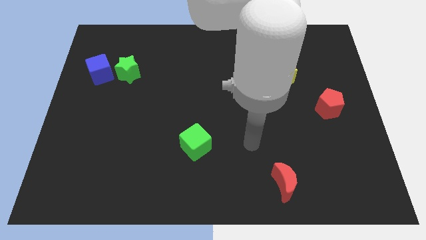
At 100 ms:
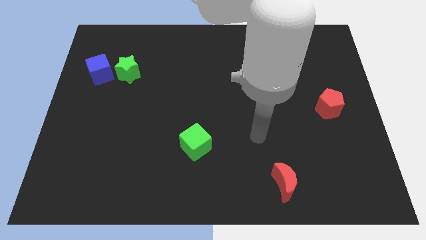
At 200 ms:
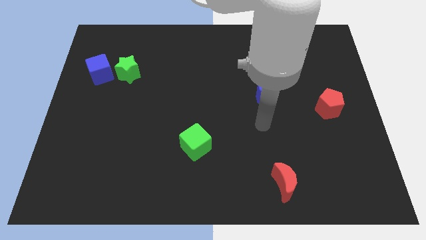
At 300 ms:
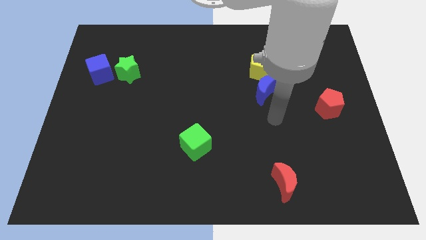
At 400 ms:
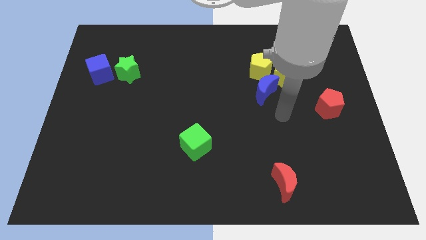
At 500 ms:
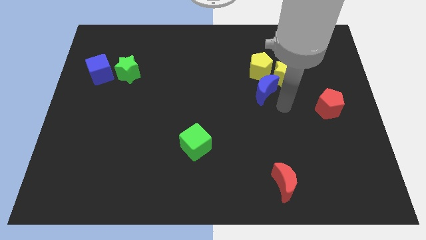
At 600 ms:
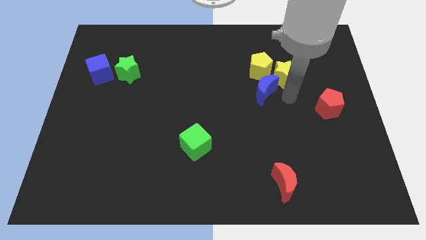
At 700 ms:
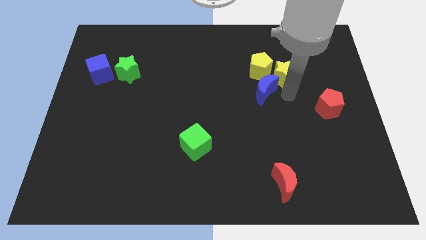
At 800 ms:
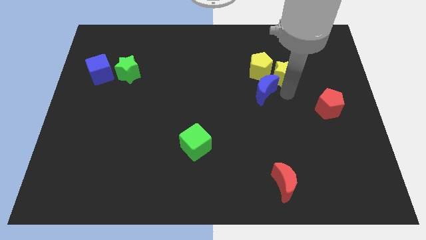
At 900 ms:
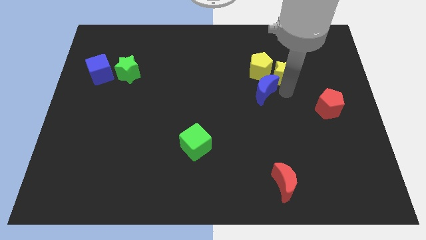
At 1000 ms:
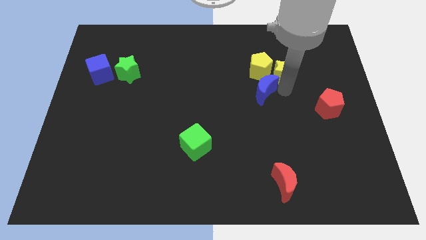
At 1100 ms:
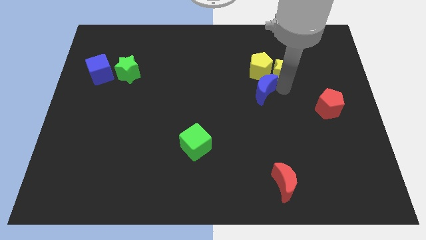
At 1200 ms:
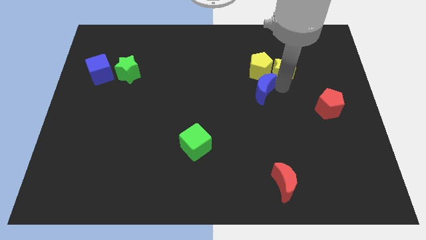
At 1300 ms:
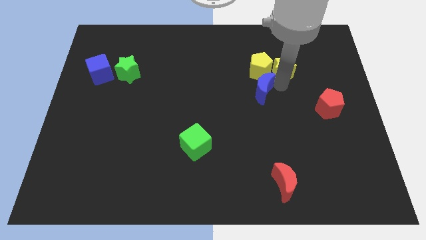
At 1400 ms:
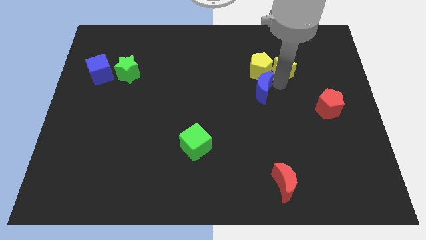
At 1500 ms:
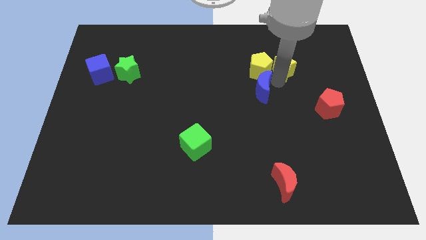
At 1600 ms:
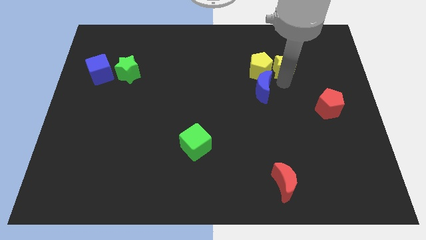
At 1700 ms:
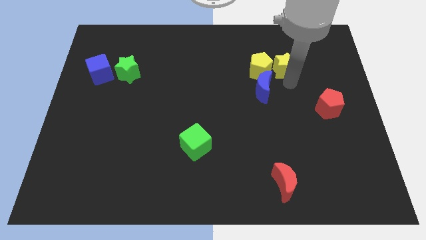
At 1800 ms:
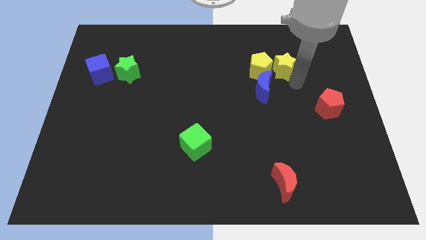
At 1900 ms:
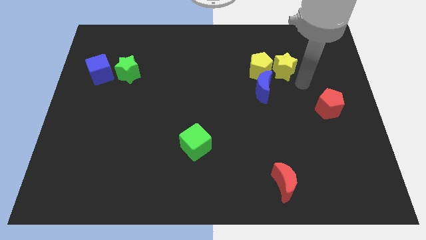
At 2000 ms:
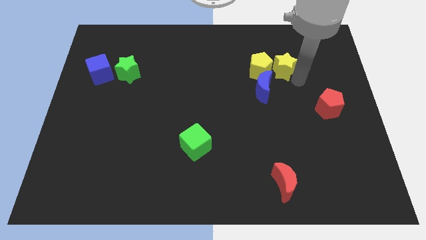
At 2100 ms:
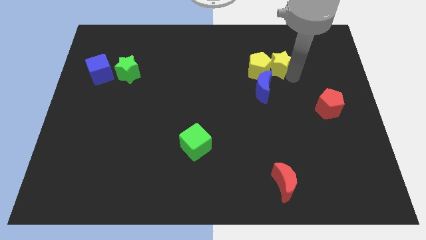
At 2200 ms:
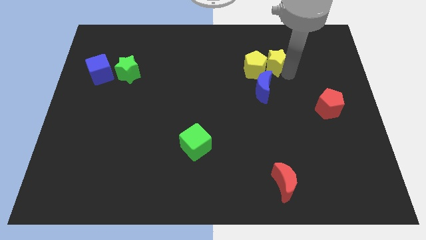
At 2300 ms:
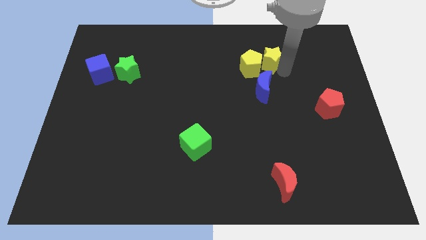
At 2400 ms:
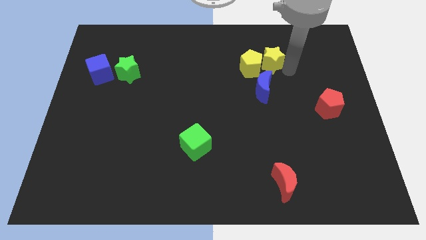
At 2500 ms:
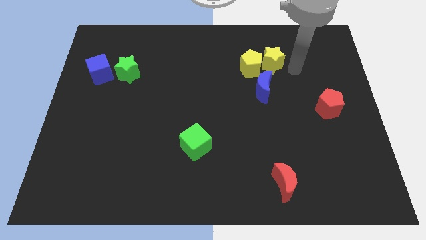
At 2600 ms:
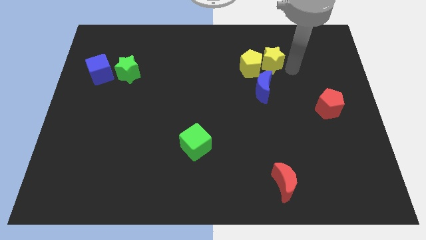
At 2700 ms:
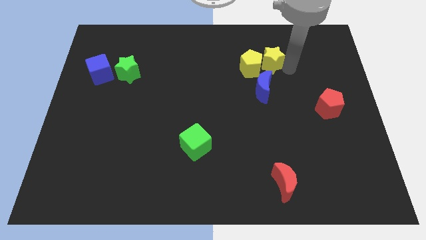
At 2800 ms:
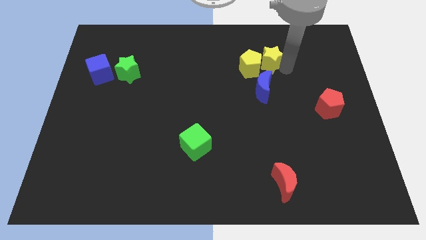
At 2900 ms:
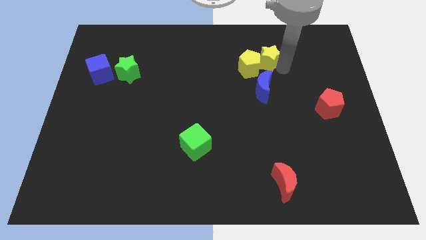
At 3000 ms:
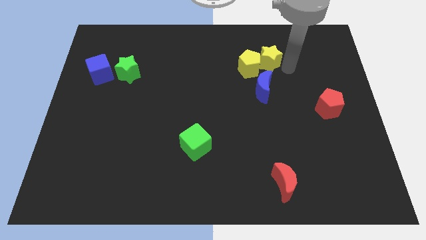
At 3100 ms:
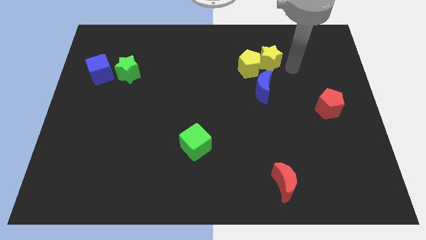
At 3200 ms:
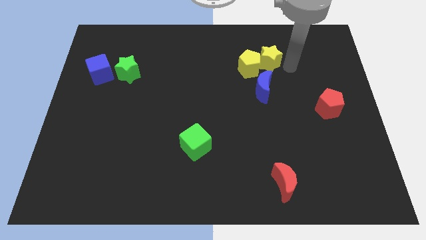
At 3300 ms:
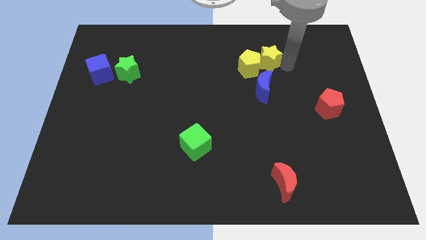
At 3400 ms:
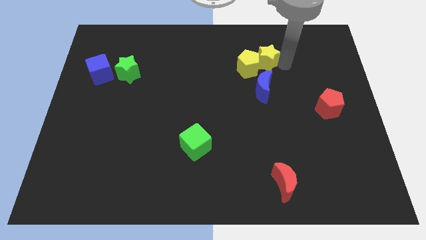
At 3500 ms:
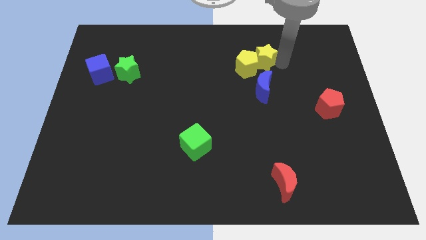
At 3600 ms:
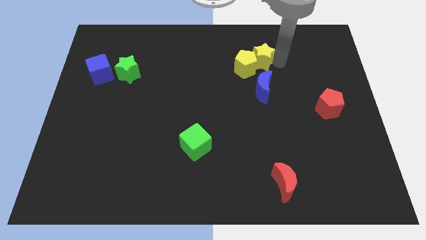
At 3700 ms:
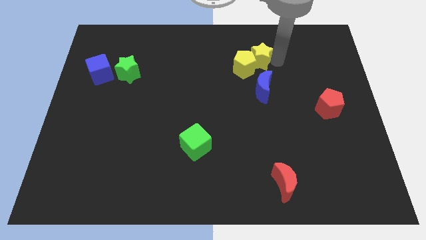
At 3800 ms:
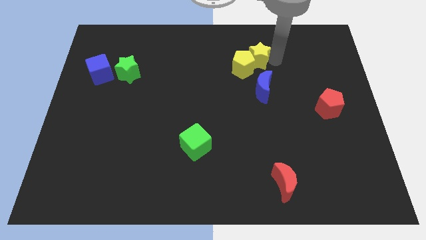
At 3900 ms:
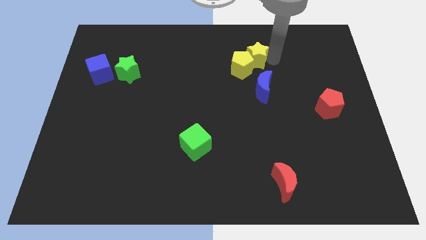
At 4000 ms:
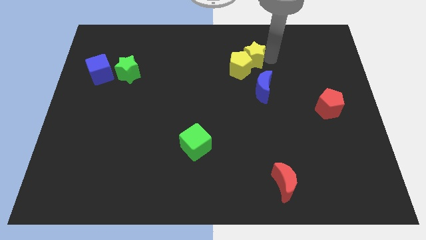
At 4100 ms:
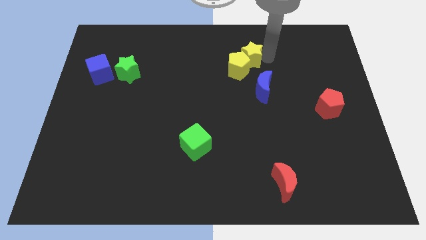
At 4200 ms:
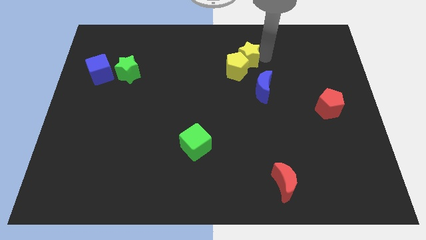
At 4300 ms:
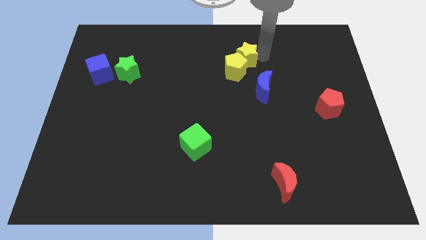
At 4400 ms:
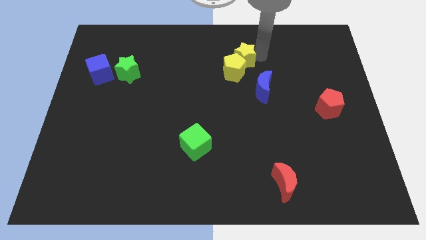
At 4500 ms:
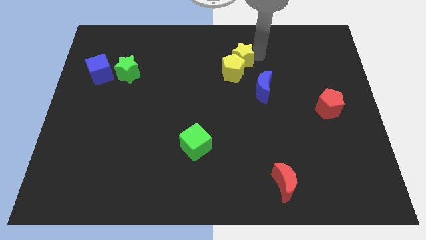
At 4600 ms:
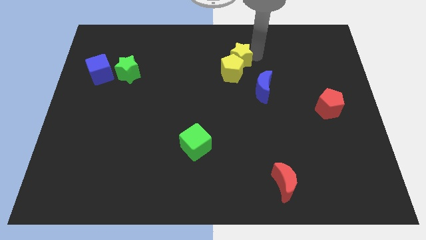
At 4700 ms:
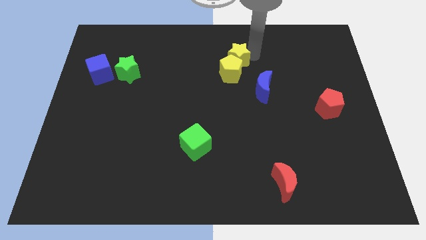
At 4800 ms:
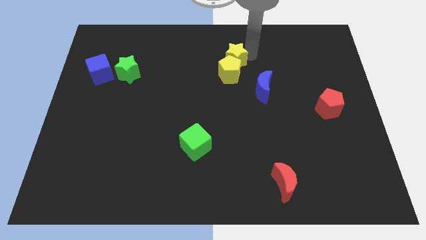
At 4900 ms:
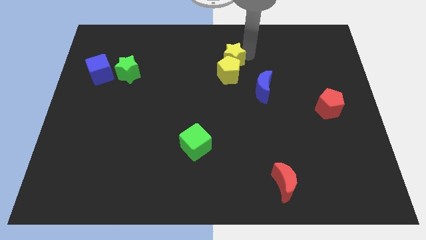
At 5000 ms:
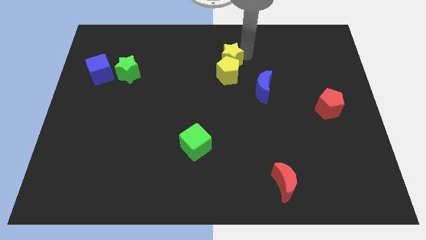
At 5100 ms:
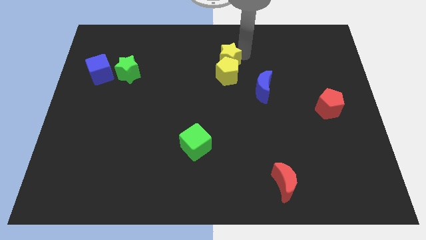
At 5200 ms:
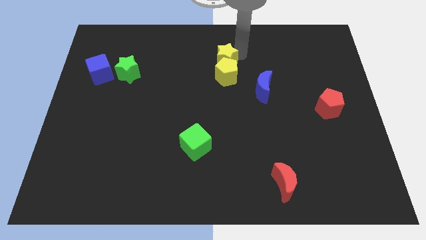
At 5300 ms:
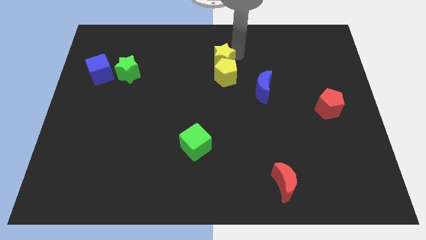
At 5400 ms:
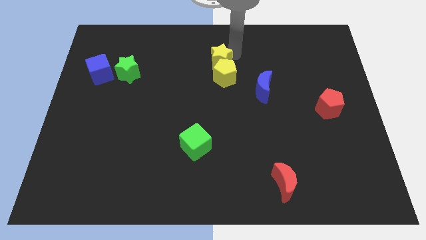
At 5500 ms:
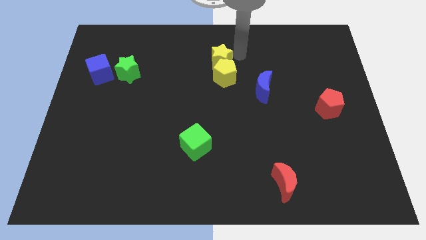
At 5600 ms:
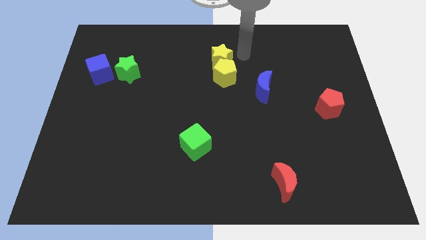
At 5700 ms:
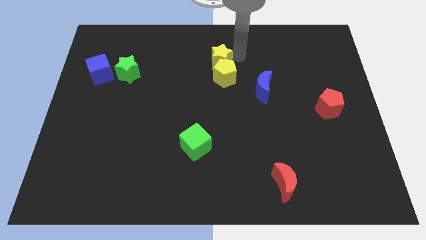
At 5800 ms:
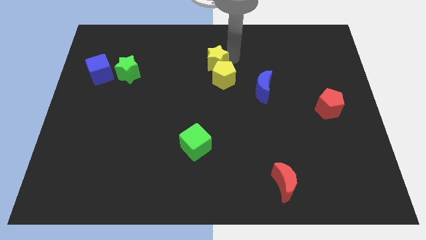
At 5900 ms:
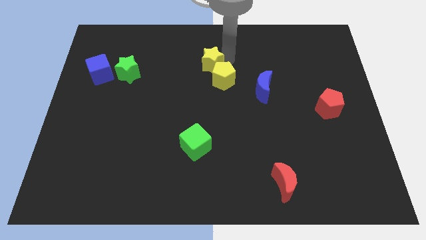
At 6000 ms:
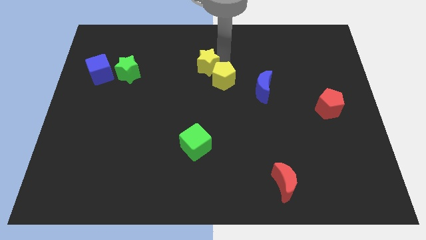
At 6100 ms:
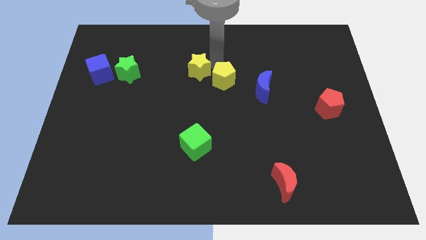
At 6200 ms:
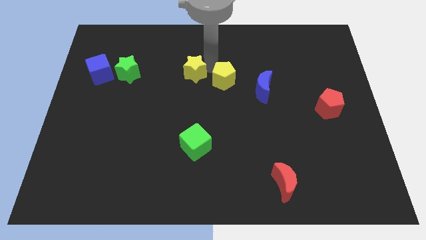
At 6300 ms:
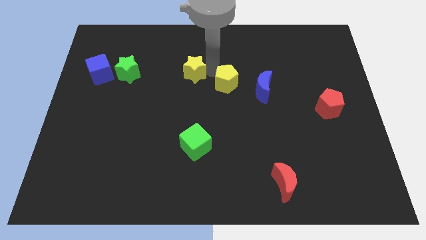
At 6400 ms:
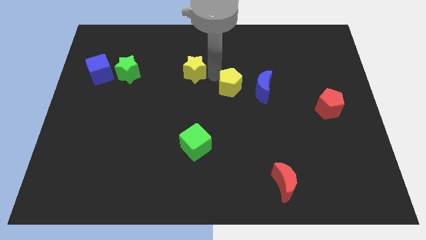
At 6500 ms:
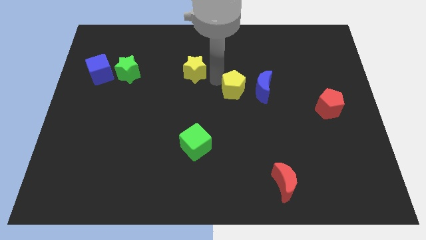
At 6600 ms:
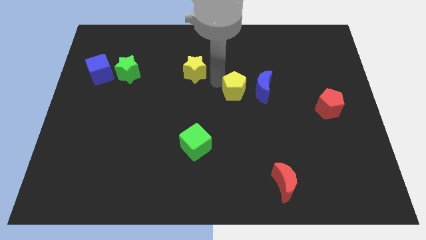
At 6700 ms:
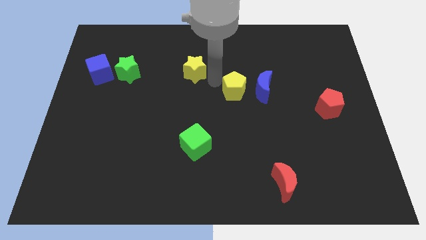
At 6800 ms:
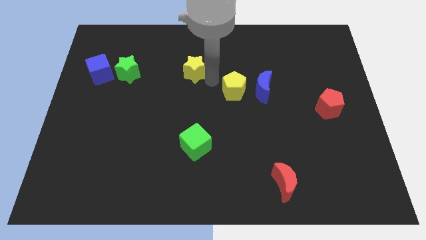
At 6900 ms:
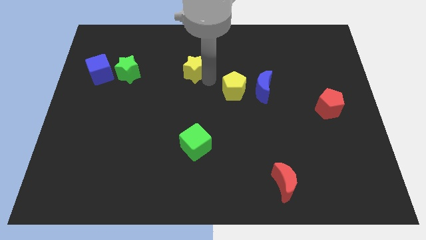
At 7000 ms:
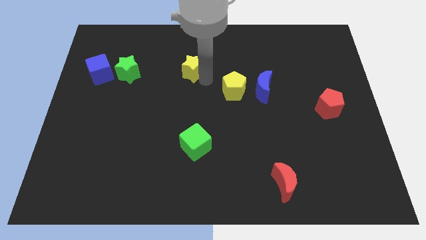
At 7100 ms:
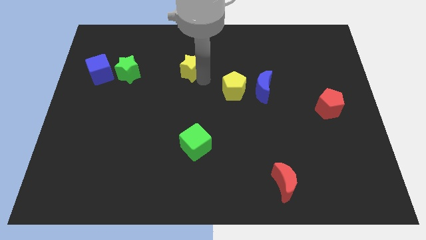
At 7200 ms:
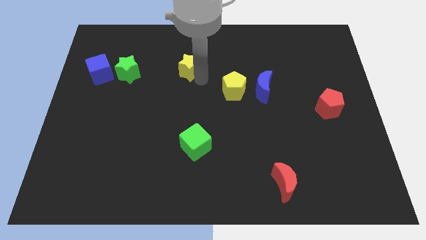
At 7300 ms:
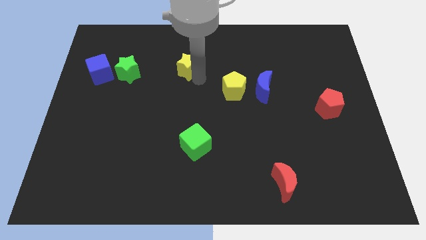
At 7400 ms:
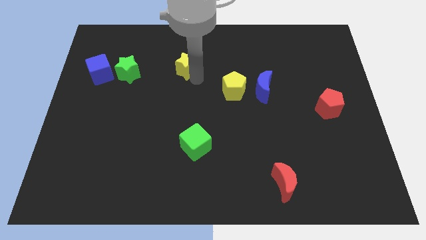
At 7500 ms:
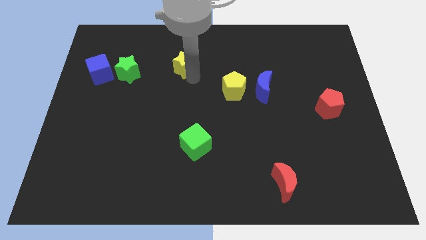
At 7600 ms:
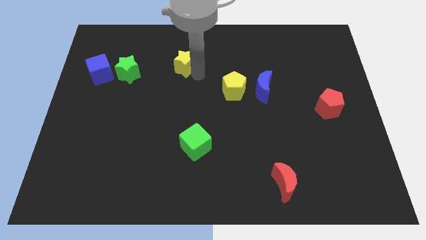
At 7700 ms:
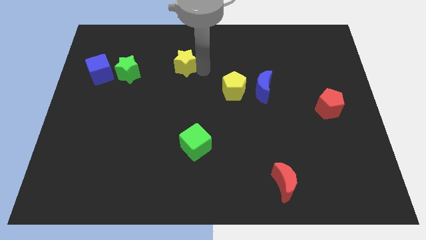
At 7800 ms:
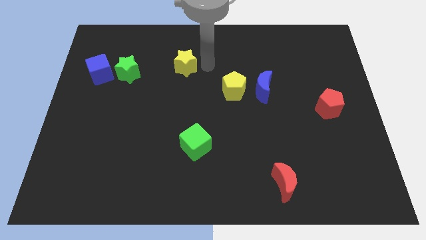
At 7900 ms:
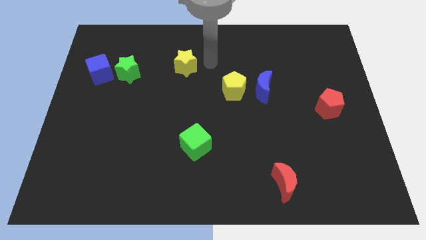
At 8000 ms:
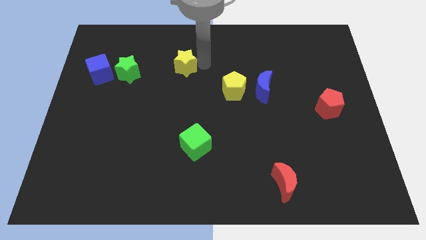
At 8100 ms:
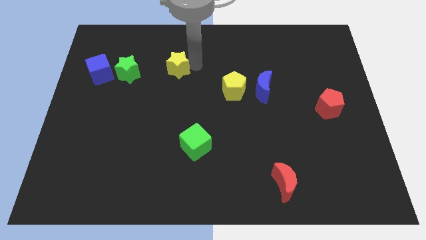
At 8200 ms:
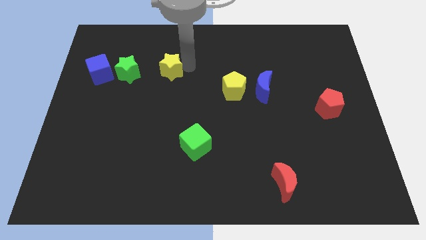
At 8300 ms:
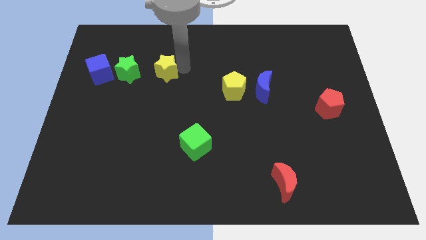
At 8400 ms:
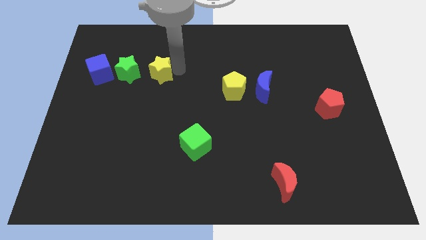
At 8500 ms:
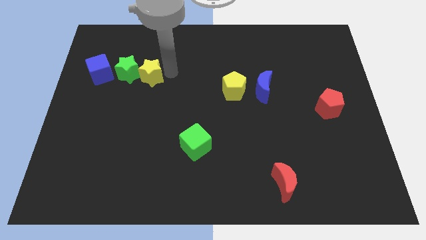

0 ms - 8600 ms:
slide the yellow star next to the green star
